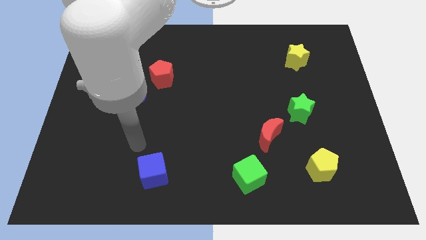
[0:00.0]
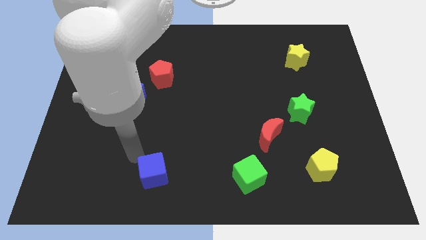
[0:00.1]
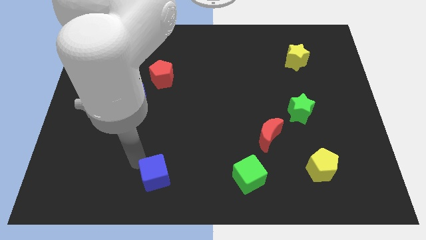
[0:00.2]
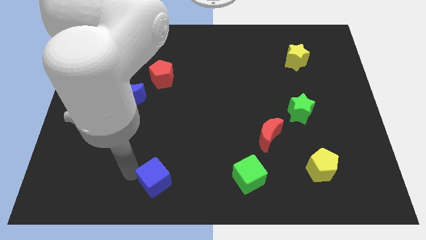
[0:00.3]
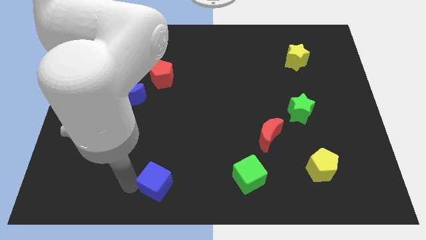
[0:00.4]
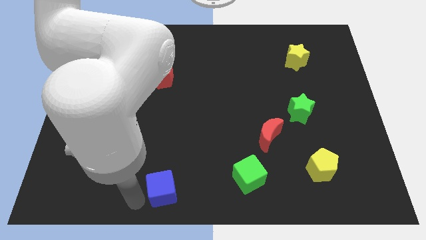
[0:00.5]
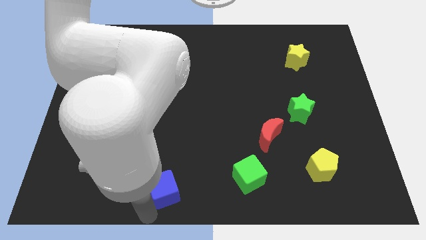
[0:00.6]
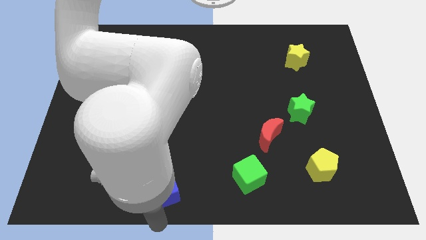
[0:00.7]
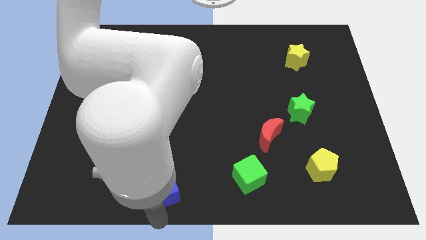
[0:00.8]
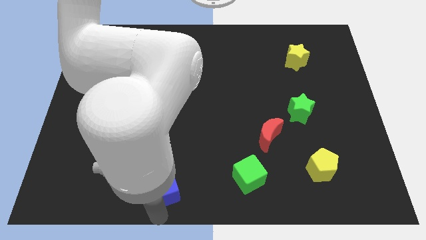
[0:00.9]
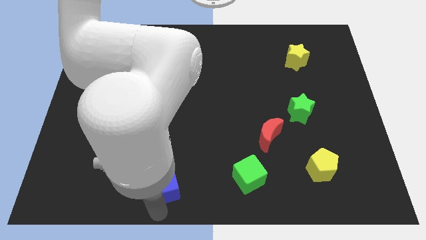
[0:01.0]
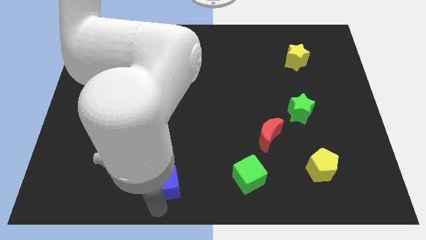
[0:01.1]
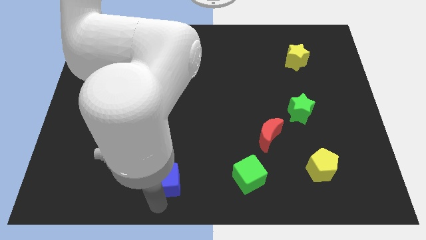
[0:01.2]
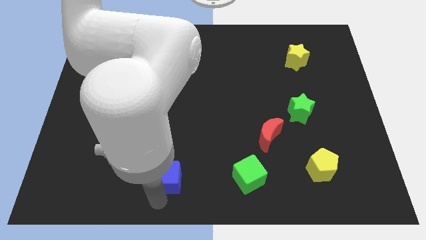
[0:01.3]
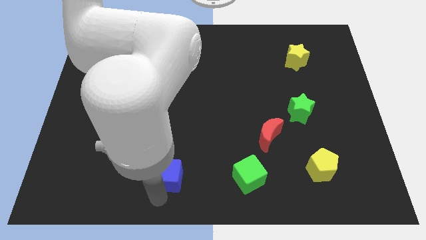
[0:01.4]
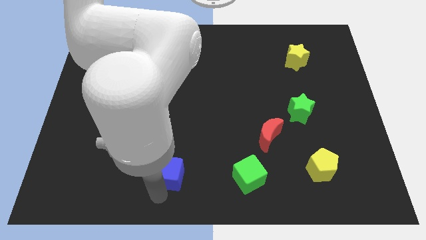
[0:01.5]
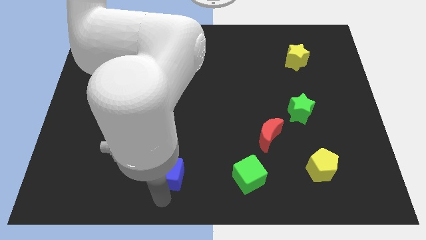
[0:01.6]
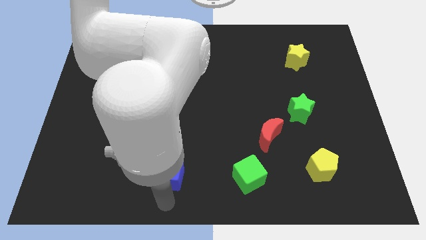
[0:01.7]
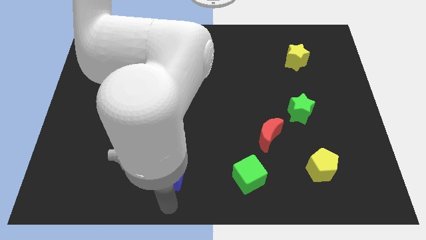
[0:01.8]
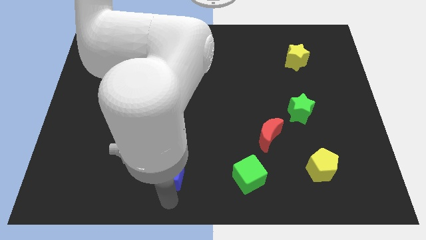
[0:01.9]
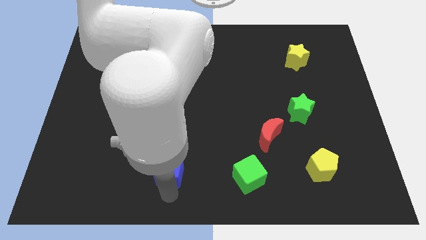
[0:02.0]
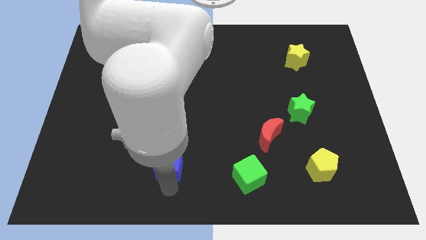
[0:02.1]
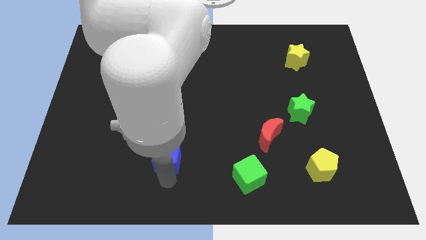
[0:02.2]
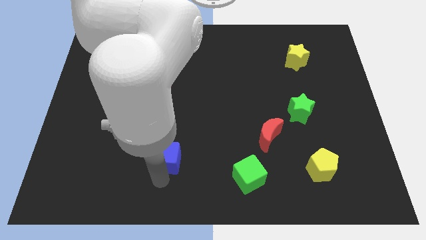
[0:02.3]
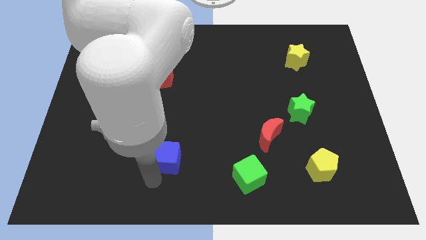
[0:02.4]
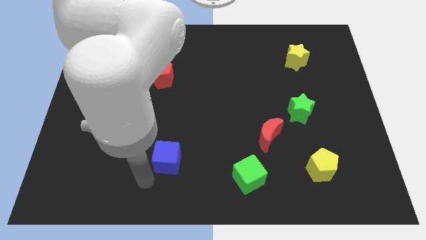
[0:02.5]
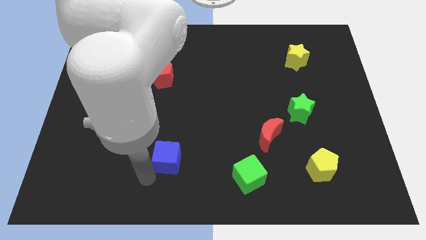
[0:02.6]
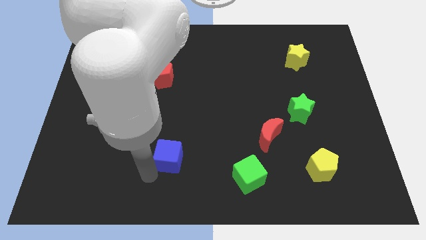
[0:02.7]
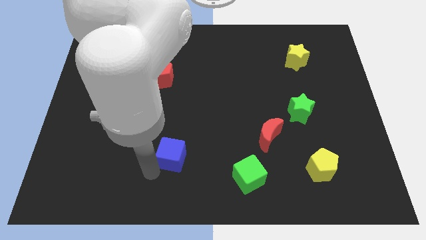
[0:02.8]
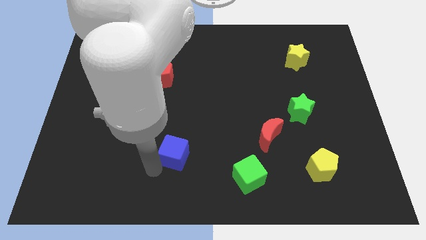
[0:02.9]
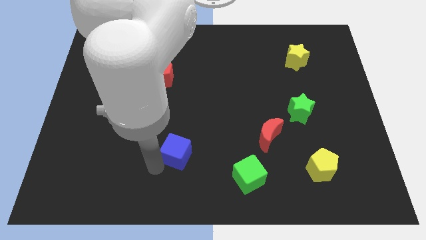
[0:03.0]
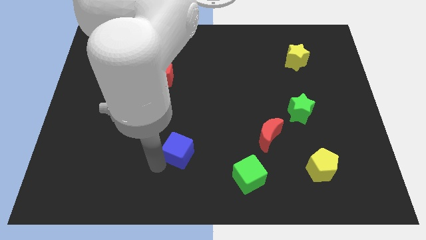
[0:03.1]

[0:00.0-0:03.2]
slide the blue cube a bit up and right diagonally

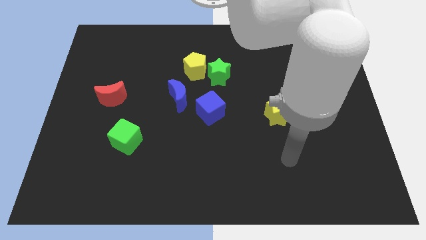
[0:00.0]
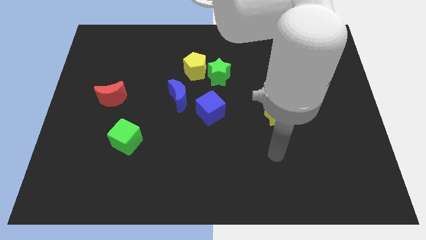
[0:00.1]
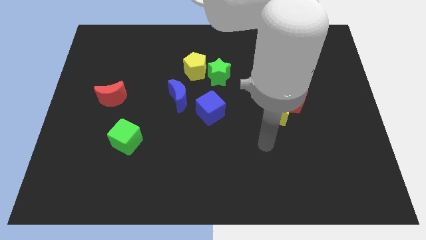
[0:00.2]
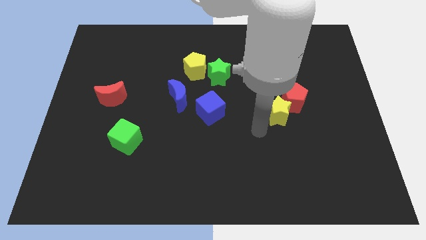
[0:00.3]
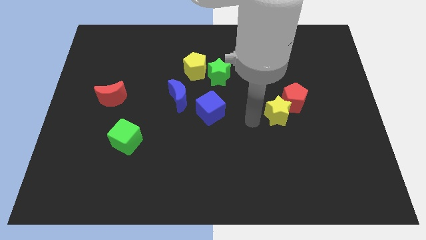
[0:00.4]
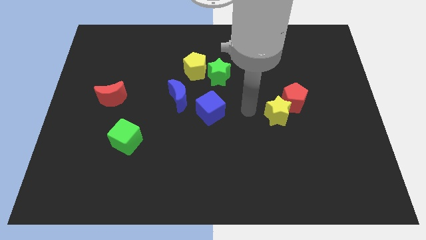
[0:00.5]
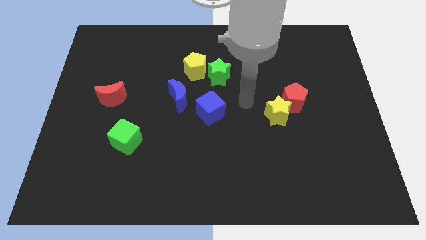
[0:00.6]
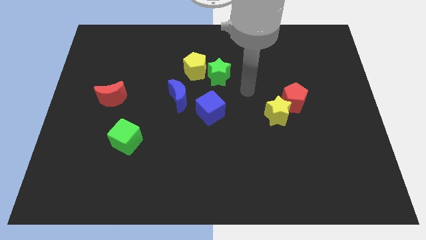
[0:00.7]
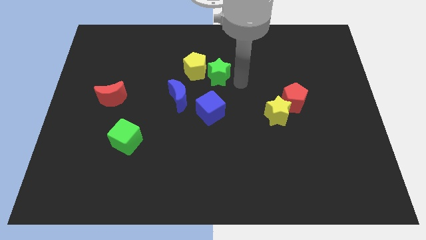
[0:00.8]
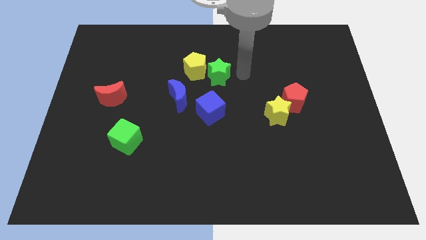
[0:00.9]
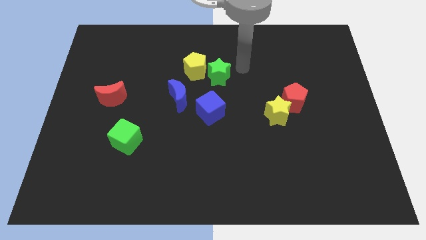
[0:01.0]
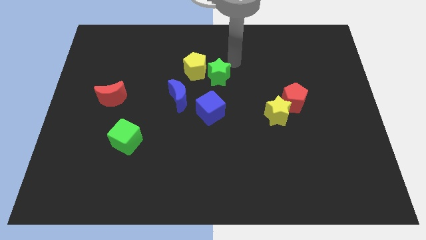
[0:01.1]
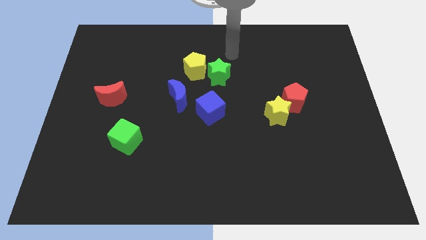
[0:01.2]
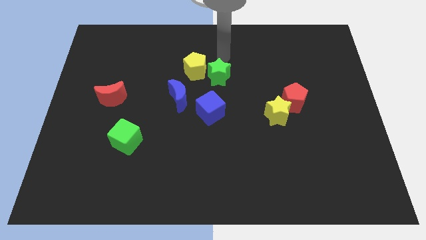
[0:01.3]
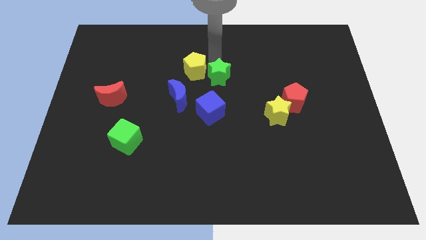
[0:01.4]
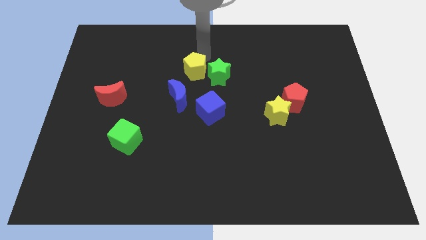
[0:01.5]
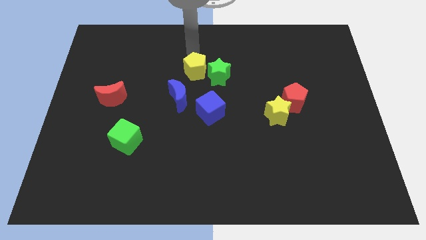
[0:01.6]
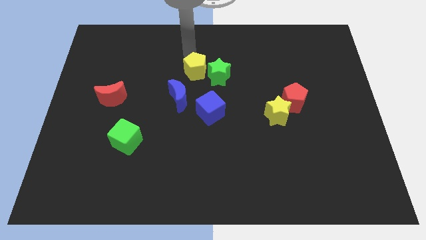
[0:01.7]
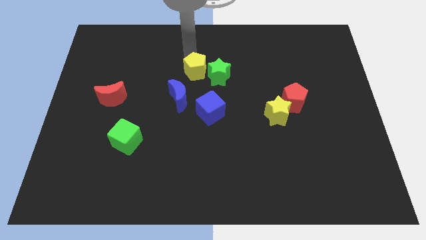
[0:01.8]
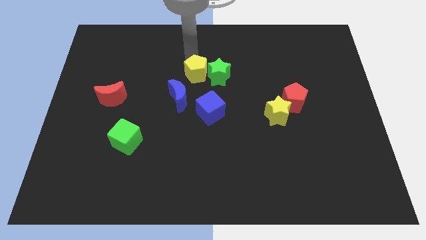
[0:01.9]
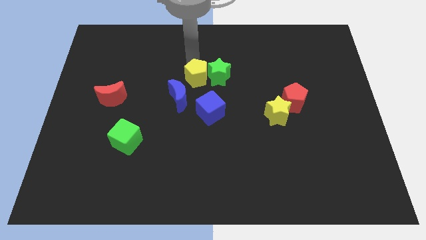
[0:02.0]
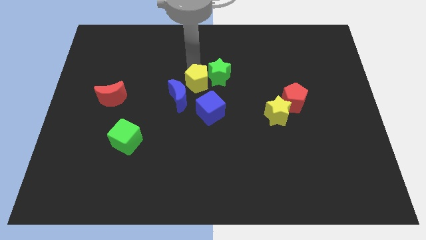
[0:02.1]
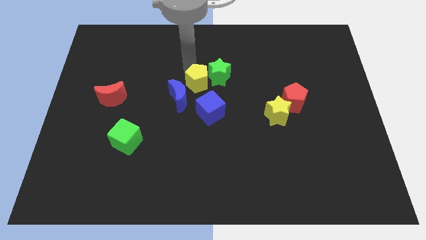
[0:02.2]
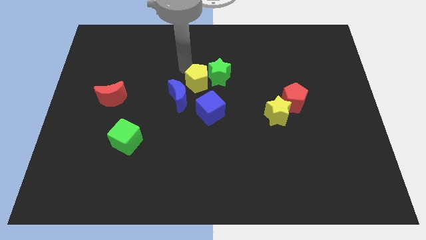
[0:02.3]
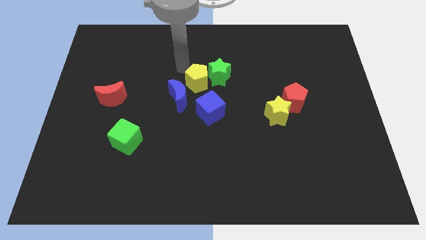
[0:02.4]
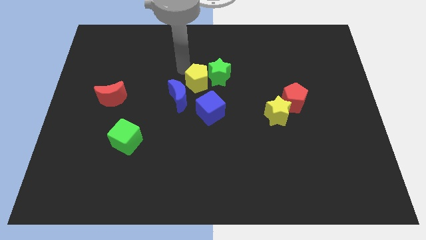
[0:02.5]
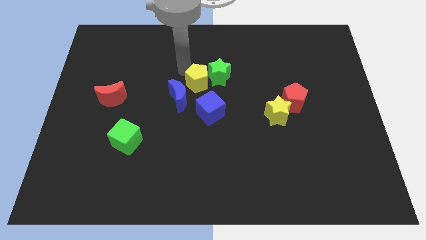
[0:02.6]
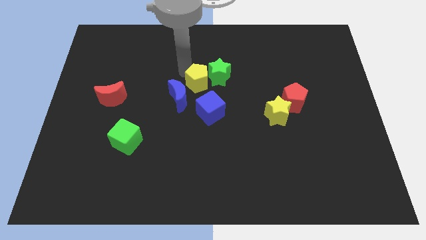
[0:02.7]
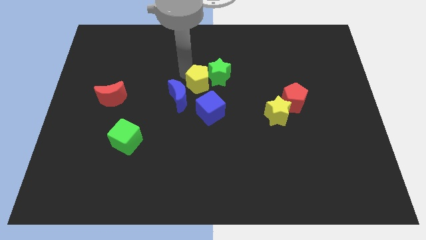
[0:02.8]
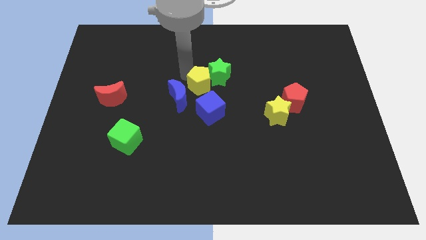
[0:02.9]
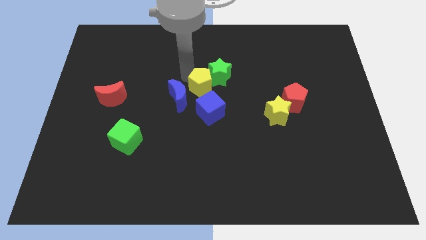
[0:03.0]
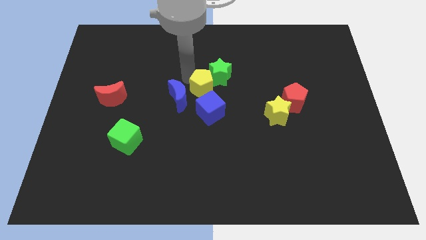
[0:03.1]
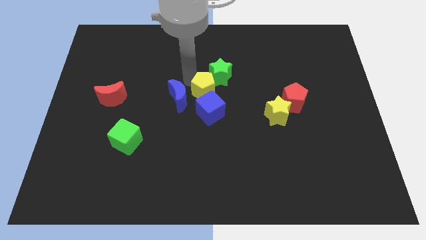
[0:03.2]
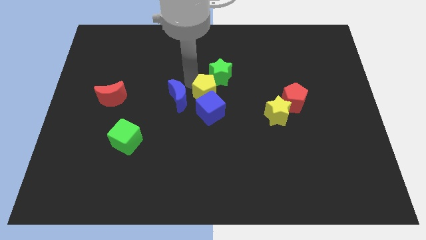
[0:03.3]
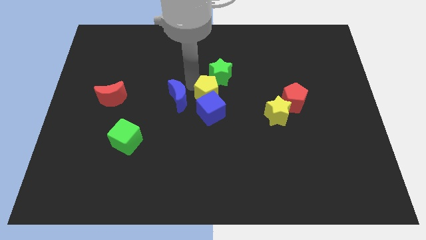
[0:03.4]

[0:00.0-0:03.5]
move the yellow pentagon slightly downwards and to the right

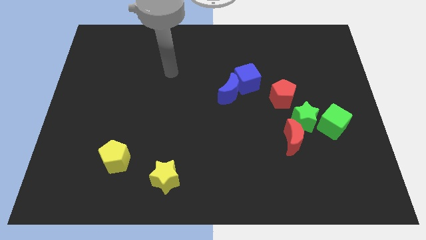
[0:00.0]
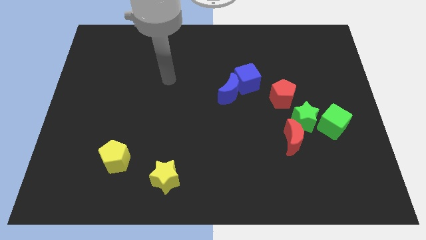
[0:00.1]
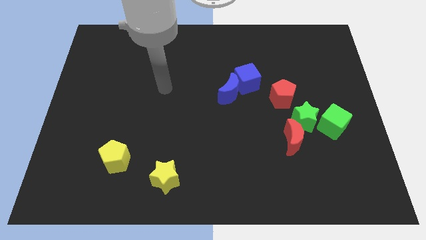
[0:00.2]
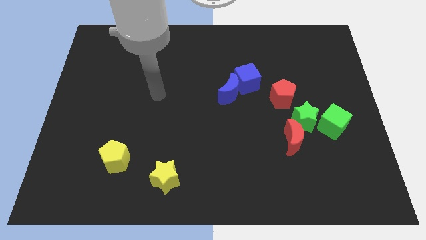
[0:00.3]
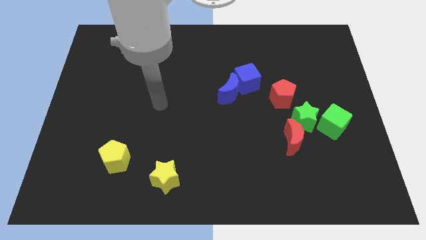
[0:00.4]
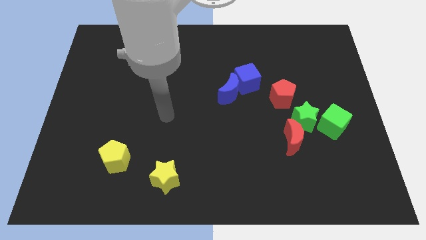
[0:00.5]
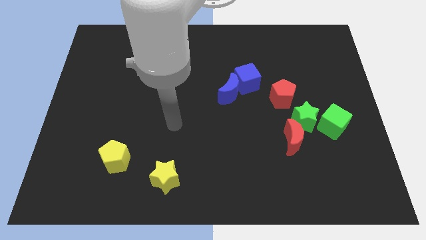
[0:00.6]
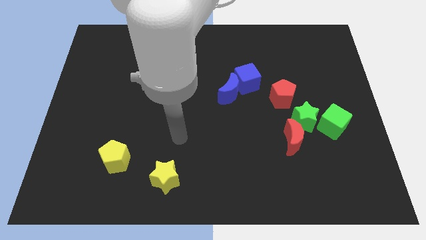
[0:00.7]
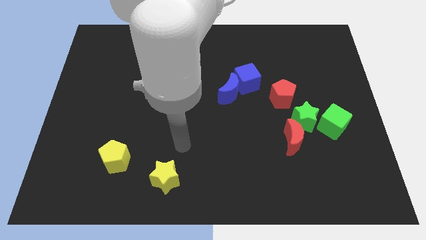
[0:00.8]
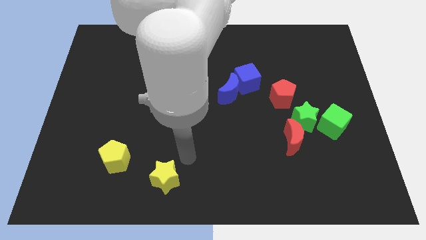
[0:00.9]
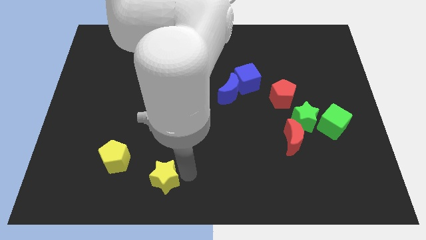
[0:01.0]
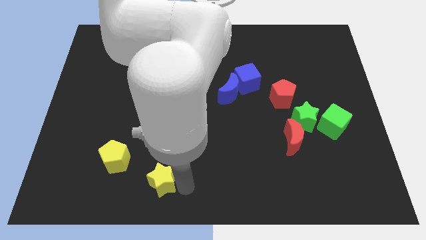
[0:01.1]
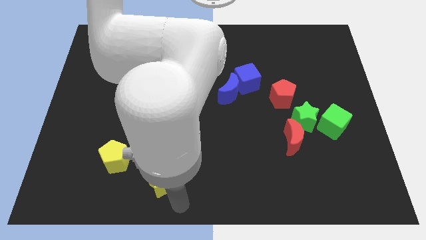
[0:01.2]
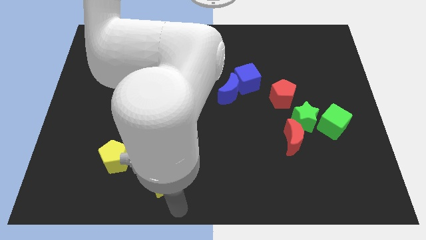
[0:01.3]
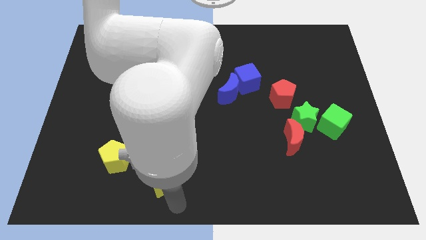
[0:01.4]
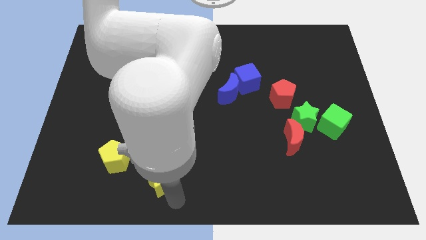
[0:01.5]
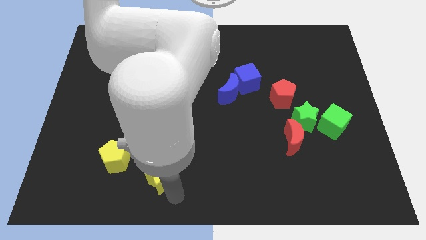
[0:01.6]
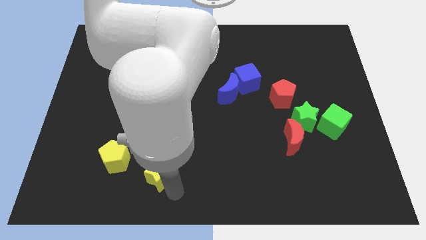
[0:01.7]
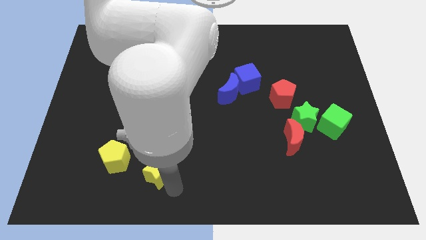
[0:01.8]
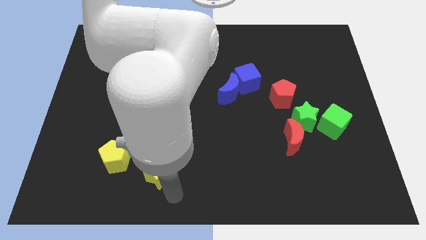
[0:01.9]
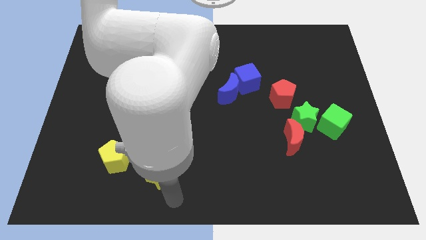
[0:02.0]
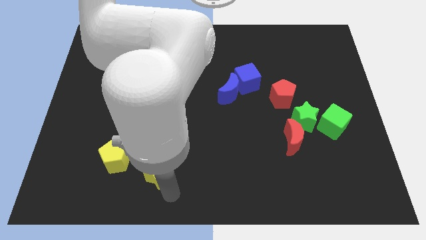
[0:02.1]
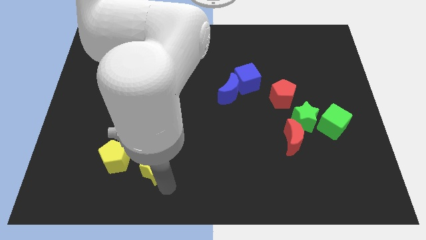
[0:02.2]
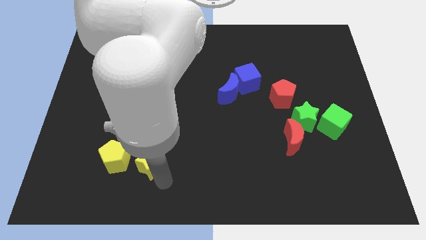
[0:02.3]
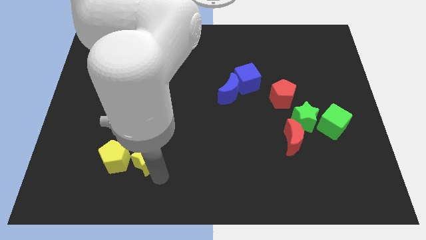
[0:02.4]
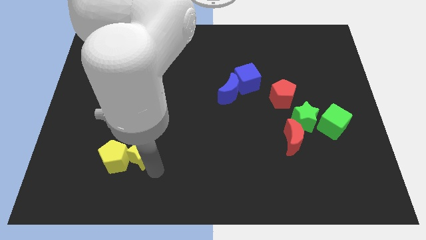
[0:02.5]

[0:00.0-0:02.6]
push the yellow star diagonally upwards and left somewhat
